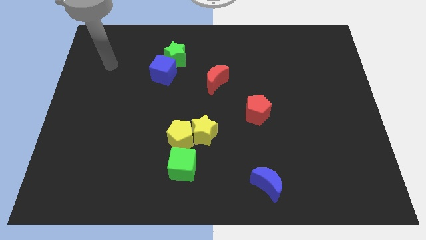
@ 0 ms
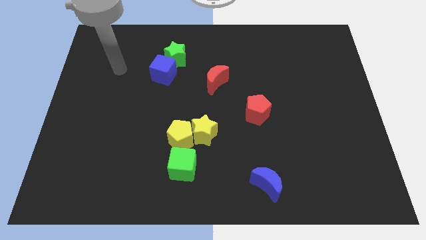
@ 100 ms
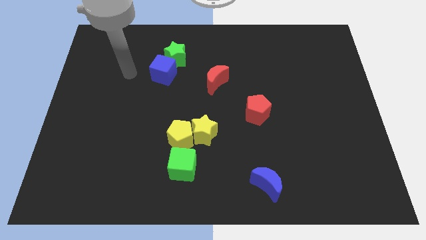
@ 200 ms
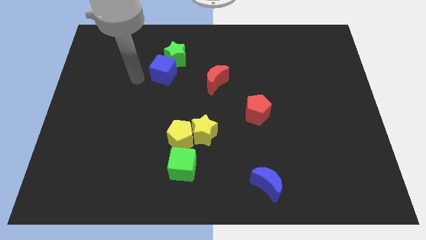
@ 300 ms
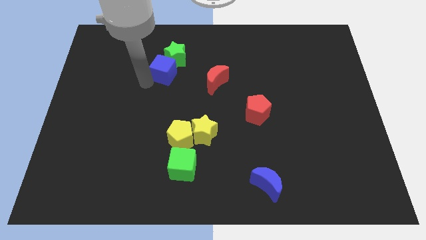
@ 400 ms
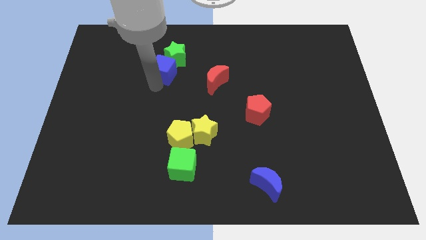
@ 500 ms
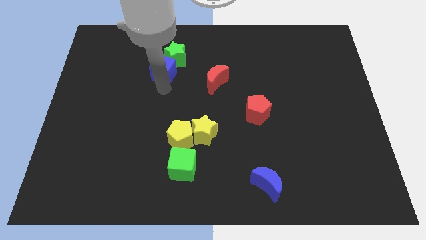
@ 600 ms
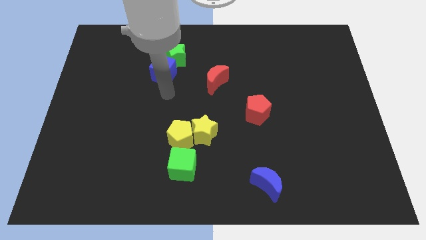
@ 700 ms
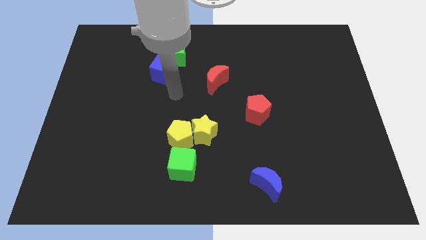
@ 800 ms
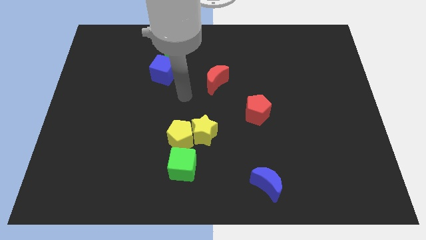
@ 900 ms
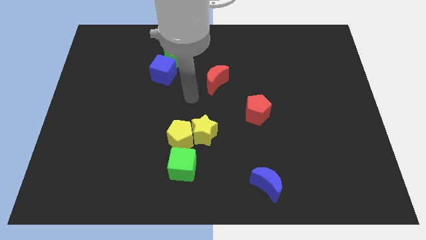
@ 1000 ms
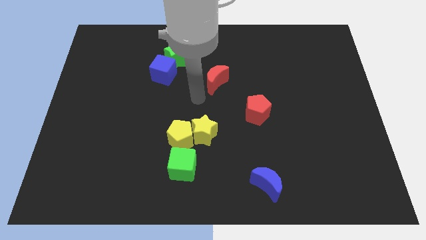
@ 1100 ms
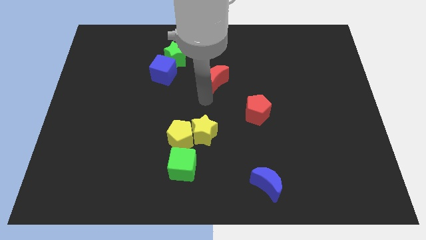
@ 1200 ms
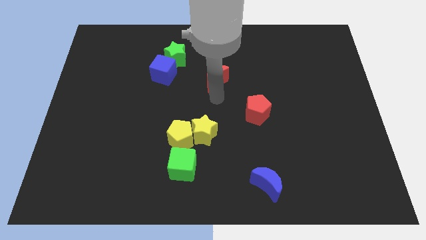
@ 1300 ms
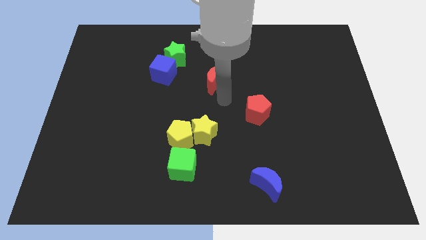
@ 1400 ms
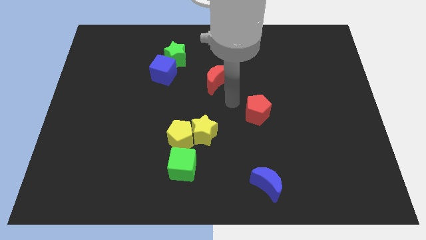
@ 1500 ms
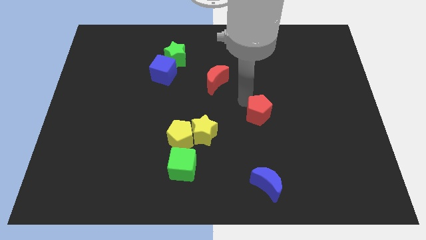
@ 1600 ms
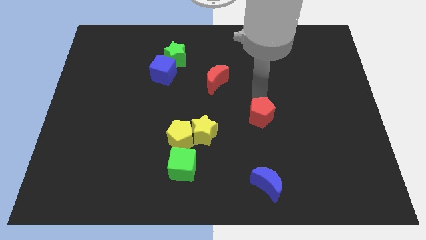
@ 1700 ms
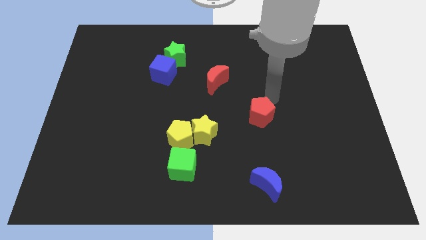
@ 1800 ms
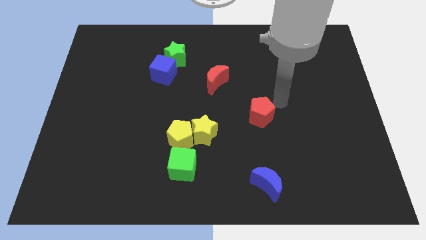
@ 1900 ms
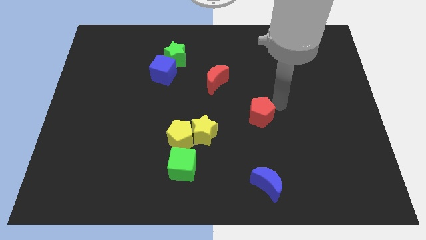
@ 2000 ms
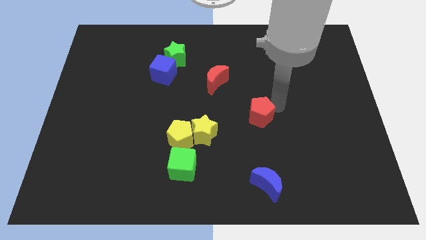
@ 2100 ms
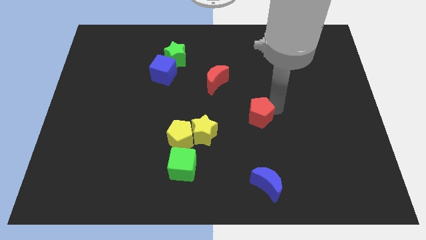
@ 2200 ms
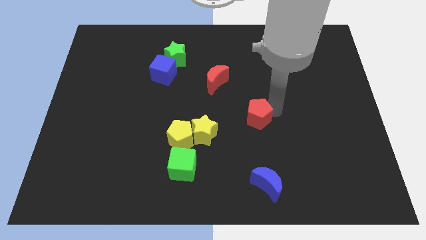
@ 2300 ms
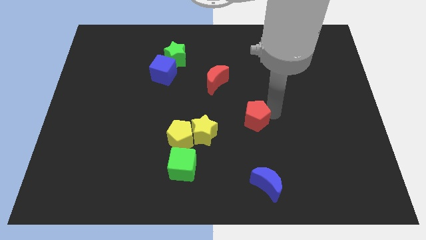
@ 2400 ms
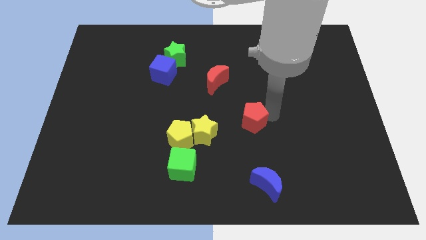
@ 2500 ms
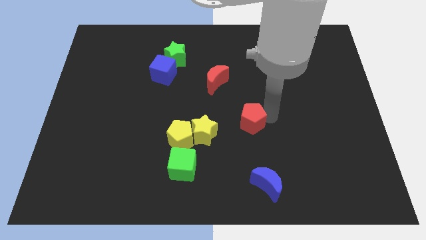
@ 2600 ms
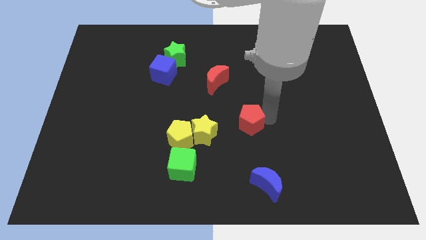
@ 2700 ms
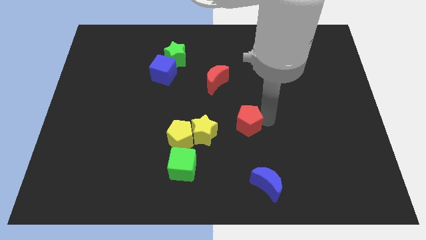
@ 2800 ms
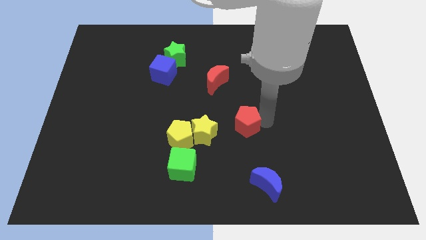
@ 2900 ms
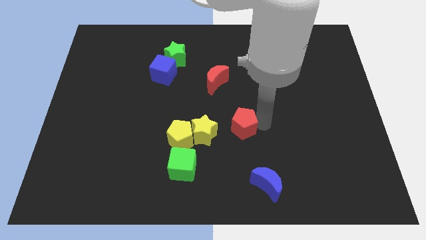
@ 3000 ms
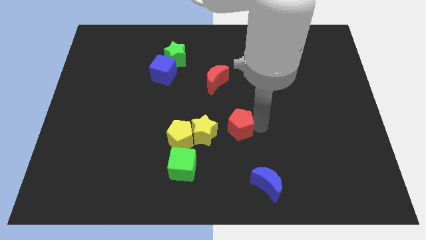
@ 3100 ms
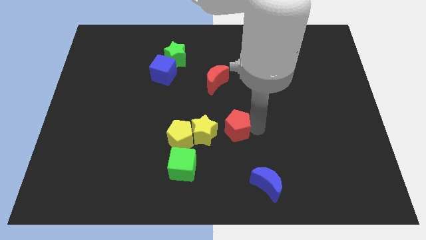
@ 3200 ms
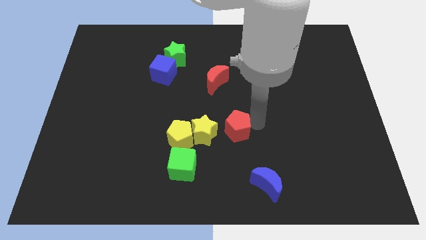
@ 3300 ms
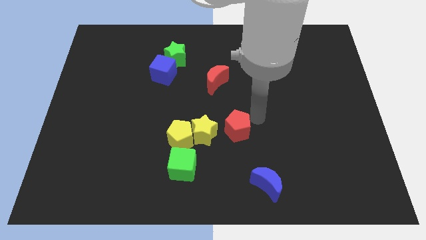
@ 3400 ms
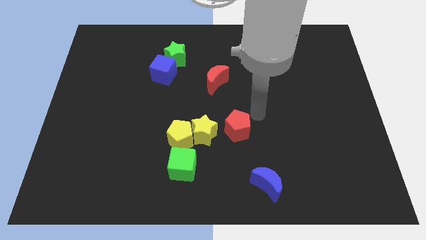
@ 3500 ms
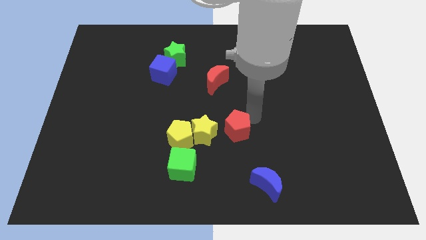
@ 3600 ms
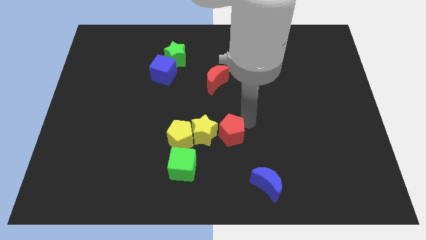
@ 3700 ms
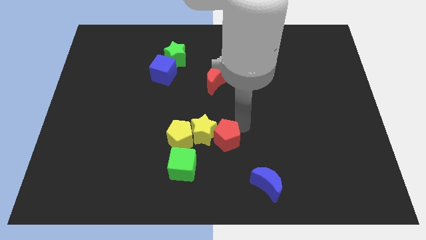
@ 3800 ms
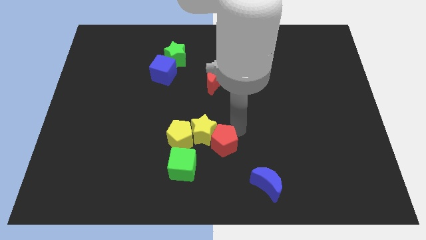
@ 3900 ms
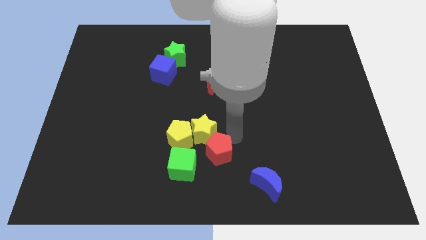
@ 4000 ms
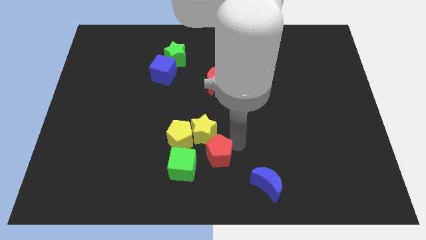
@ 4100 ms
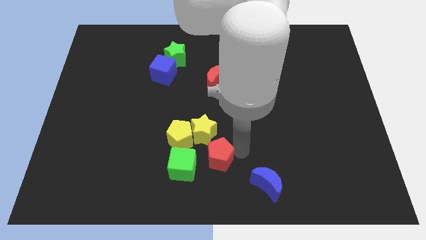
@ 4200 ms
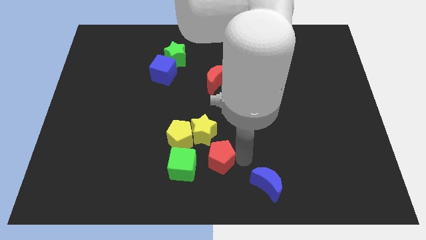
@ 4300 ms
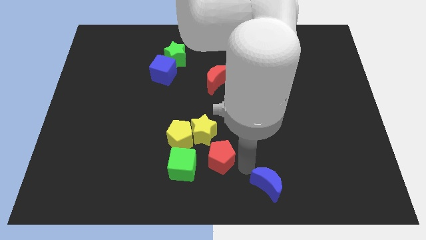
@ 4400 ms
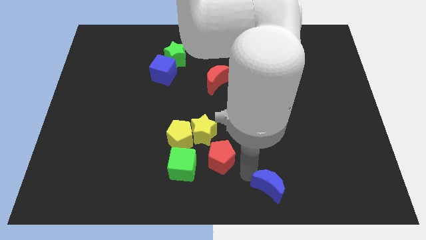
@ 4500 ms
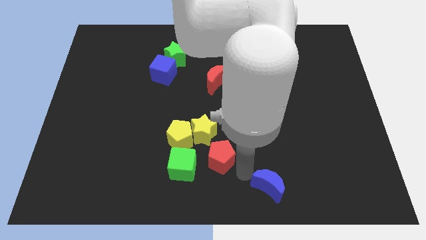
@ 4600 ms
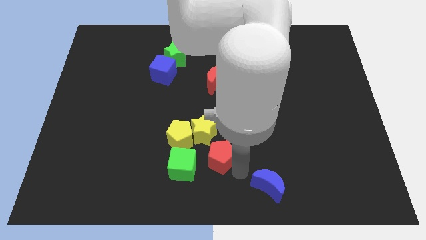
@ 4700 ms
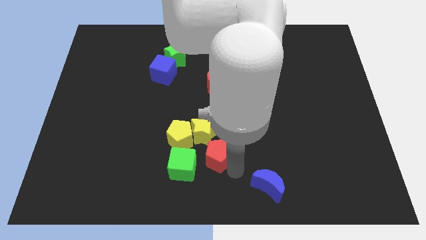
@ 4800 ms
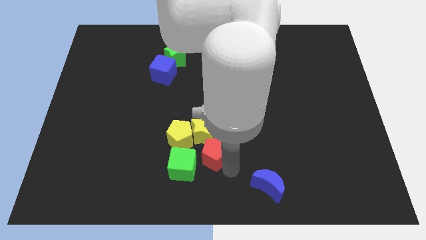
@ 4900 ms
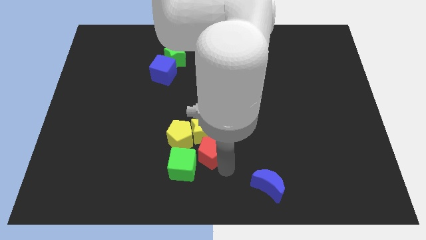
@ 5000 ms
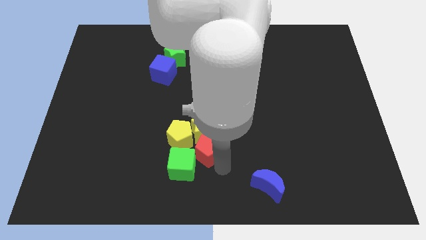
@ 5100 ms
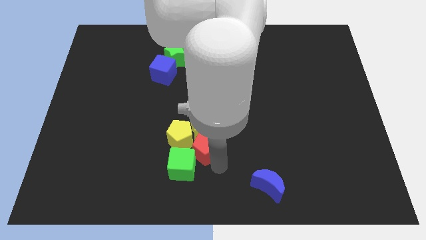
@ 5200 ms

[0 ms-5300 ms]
slide the red pentagon close to the yellow pentagon

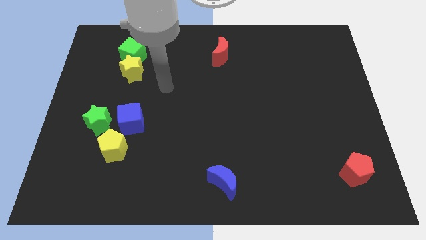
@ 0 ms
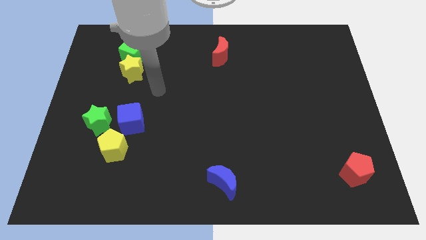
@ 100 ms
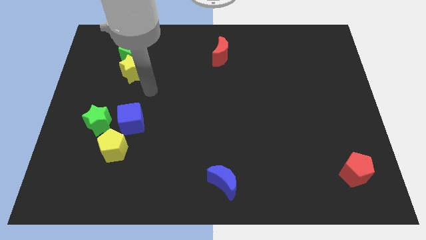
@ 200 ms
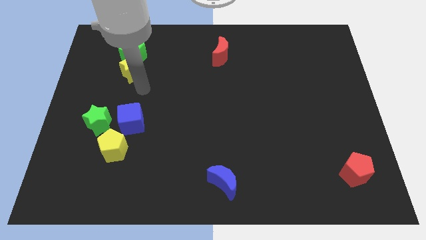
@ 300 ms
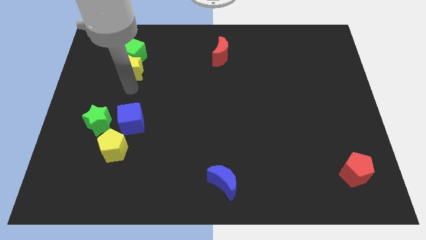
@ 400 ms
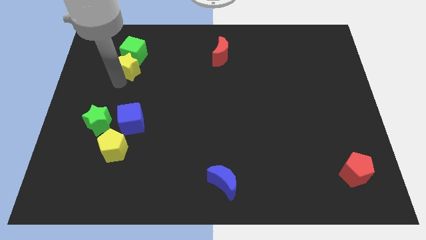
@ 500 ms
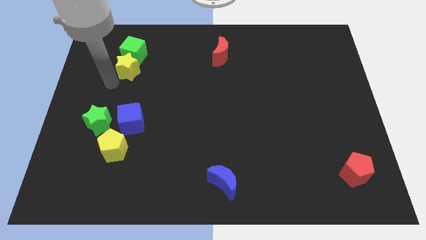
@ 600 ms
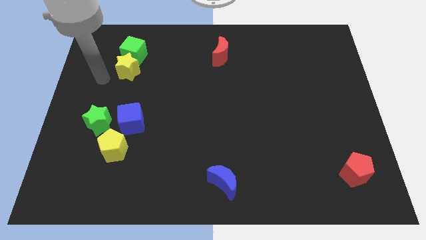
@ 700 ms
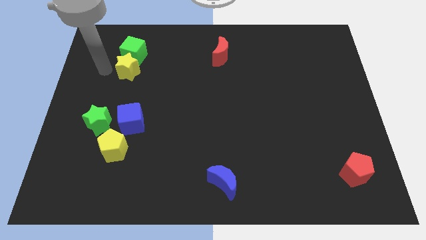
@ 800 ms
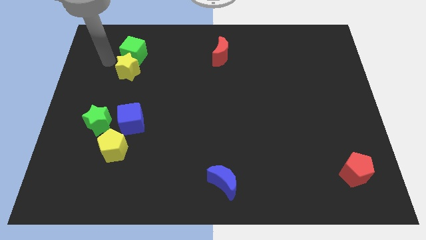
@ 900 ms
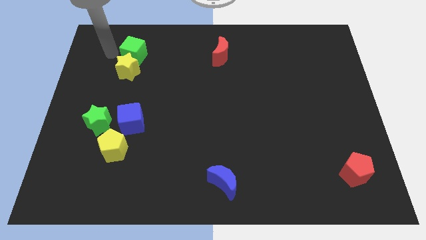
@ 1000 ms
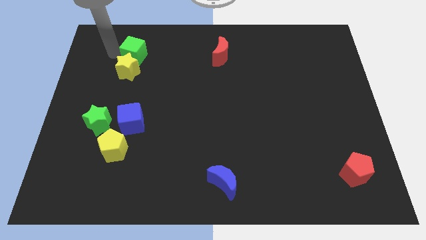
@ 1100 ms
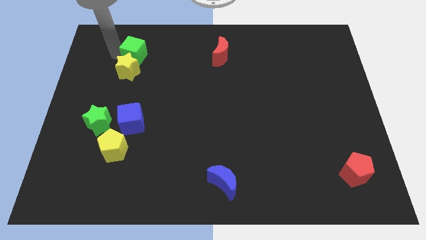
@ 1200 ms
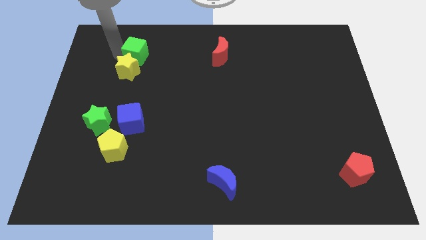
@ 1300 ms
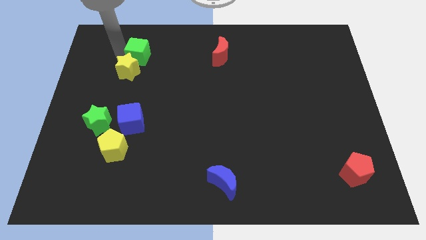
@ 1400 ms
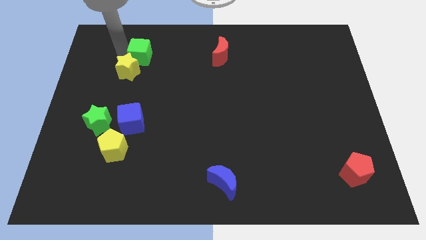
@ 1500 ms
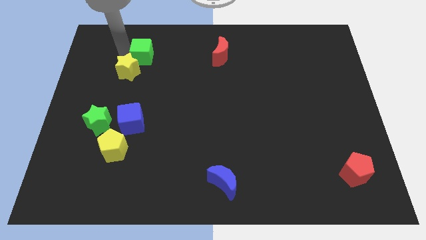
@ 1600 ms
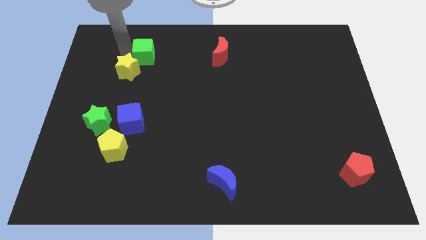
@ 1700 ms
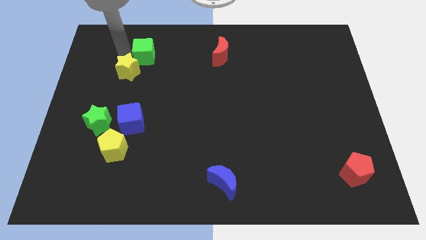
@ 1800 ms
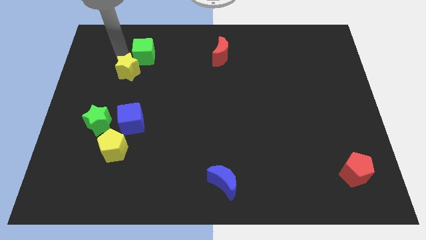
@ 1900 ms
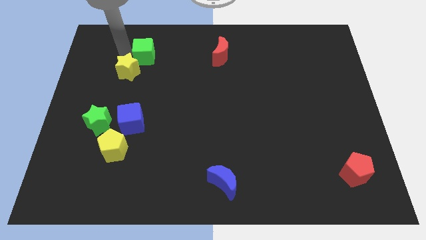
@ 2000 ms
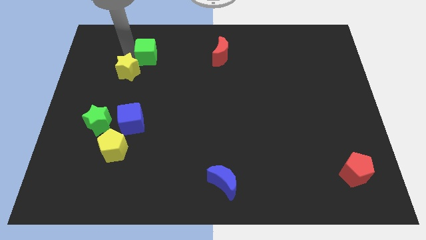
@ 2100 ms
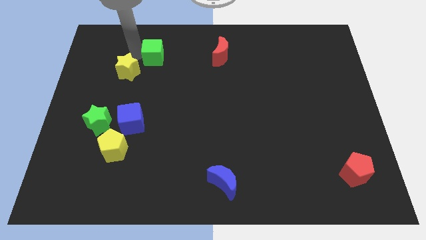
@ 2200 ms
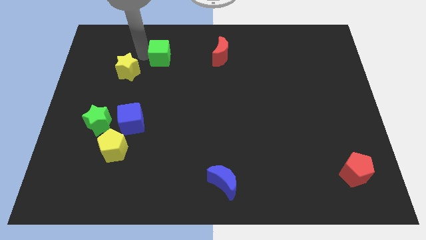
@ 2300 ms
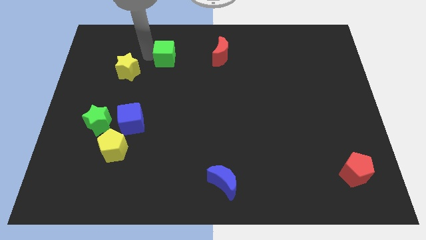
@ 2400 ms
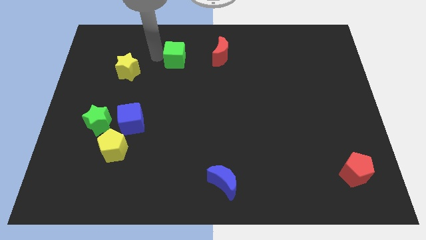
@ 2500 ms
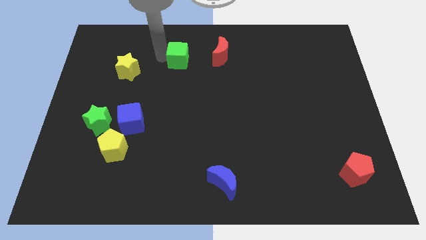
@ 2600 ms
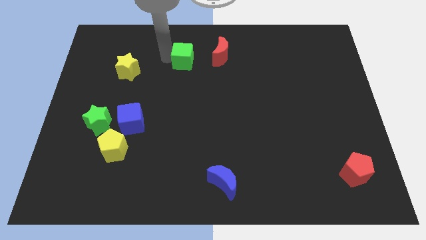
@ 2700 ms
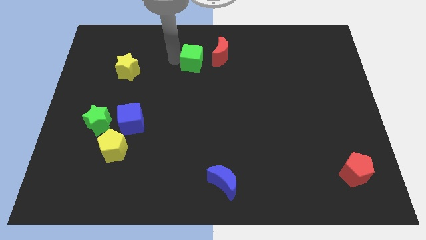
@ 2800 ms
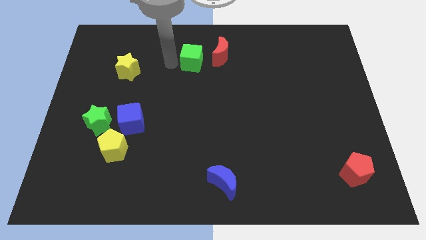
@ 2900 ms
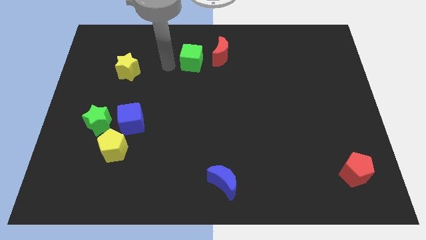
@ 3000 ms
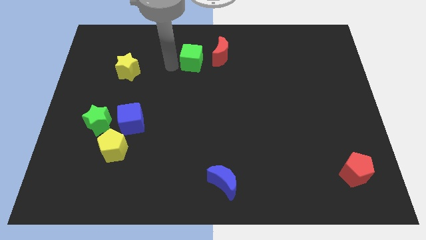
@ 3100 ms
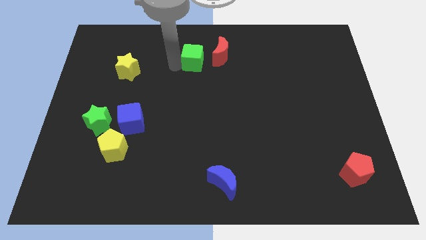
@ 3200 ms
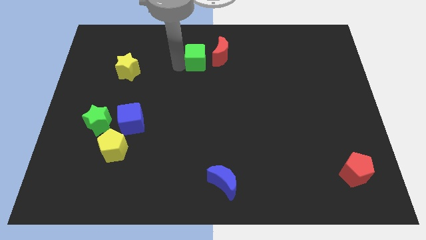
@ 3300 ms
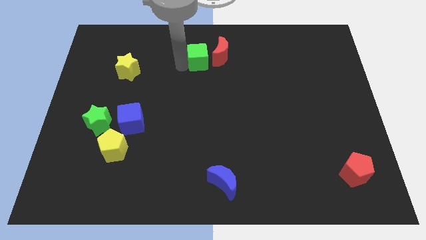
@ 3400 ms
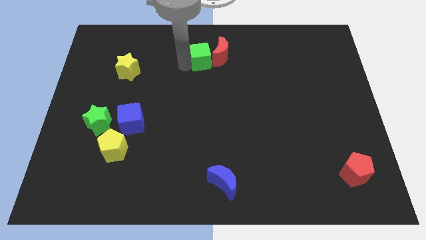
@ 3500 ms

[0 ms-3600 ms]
push the green cube towards the red moon
